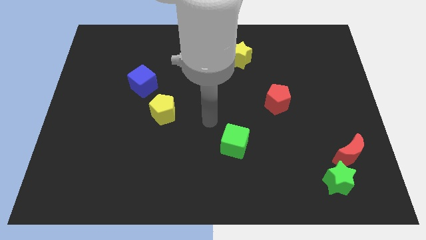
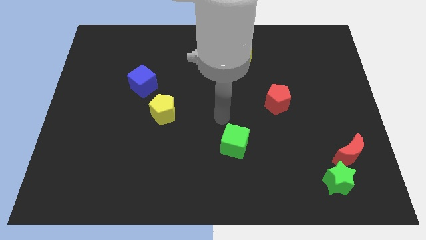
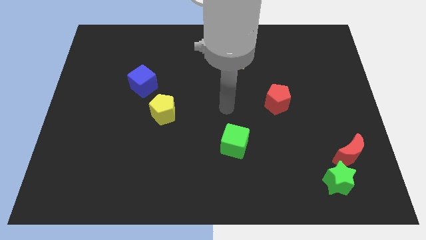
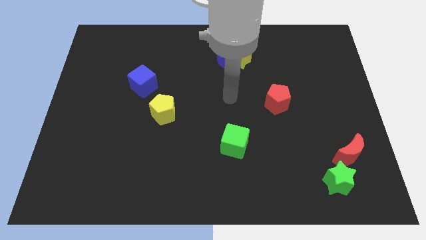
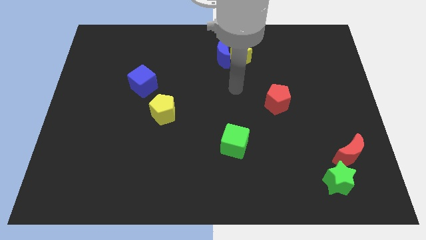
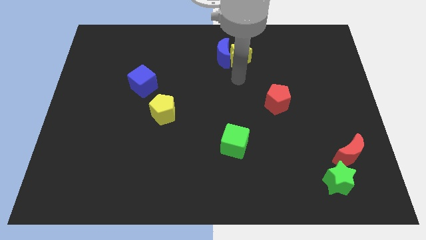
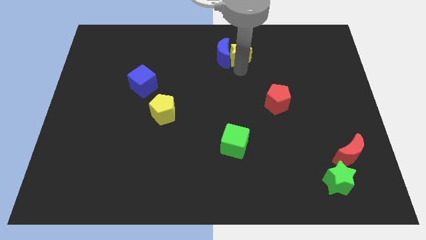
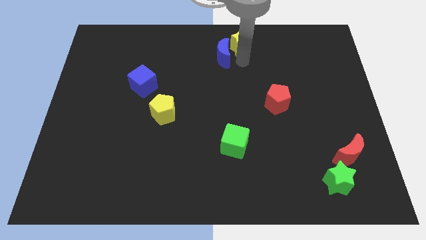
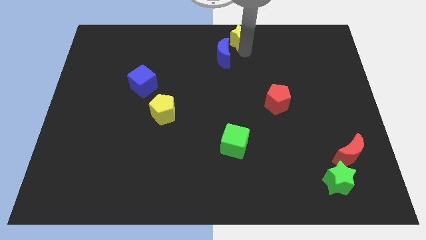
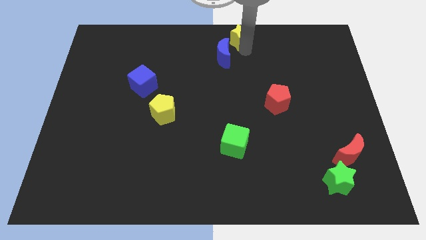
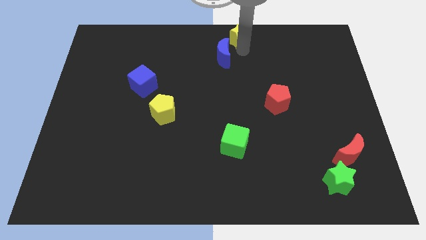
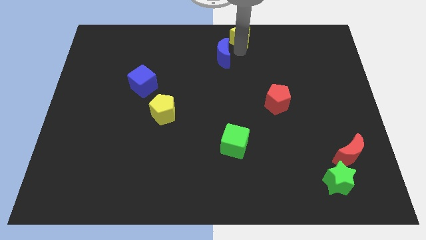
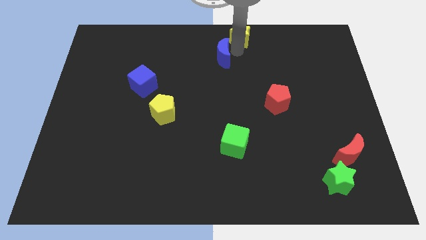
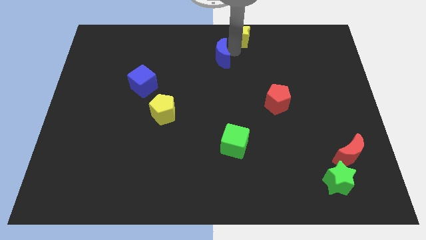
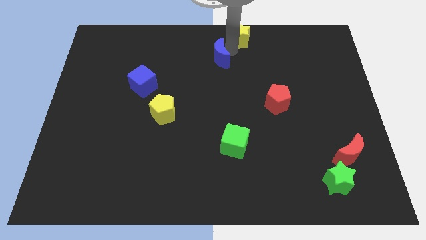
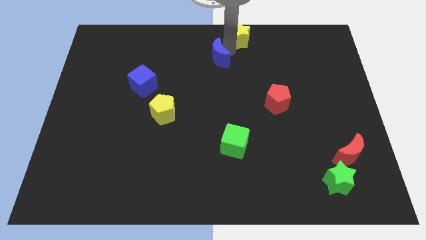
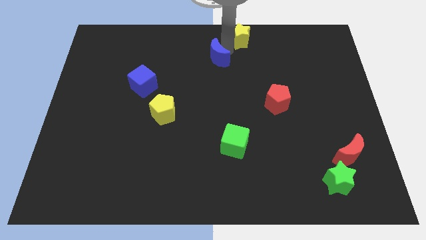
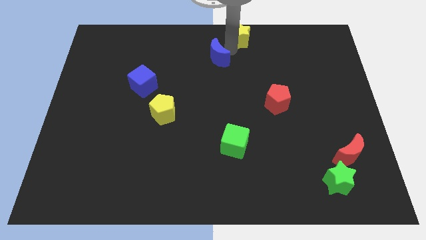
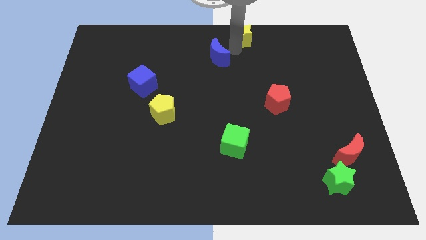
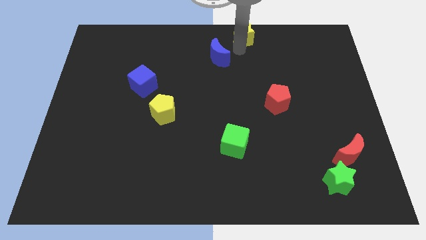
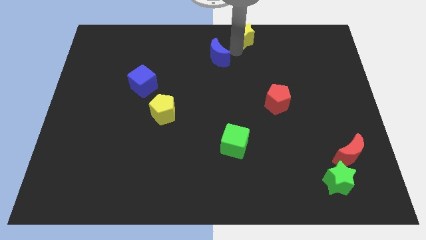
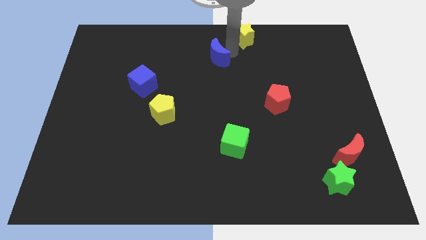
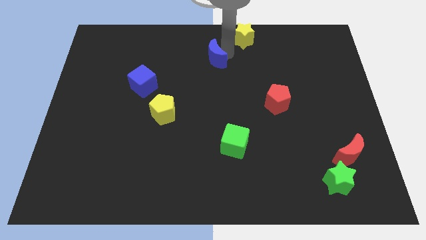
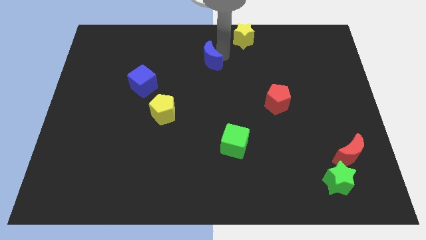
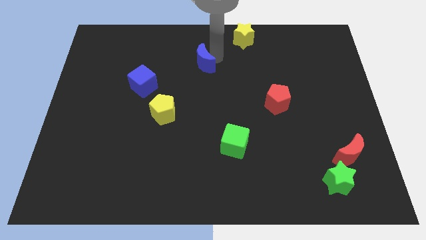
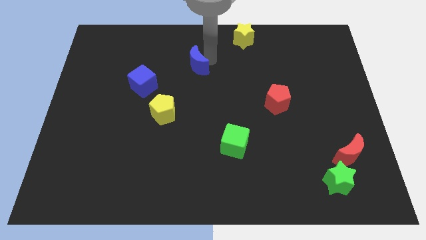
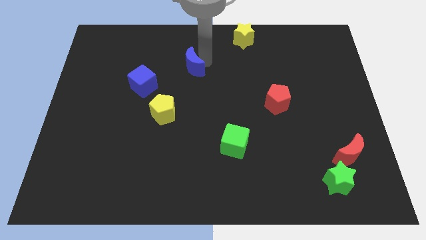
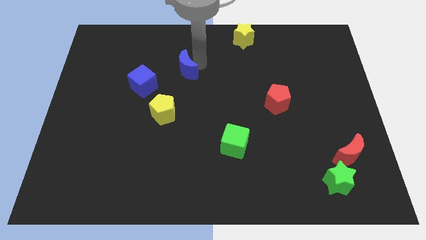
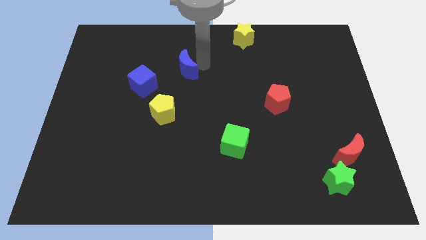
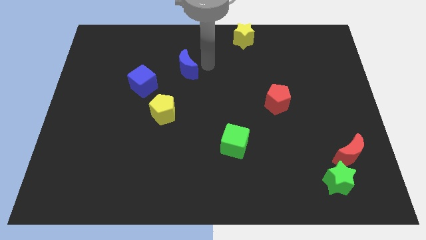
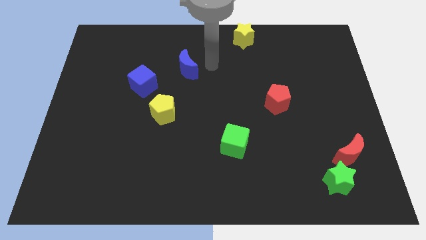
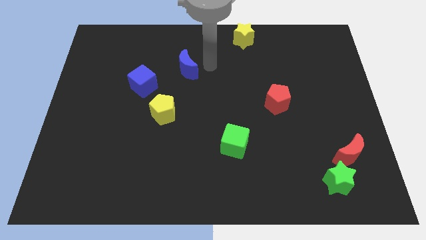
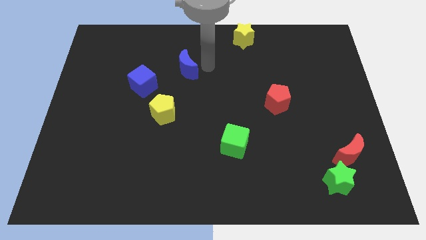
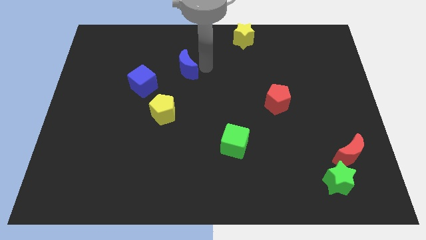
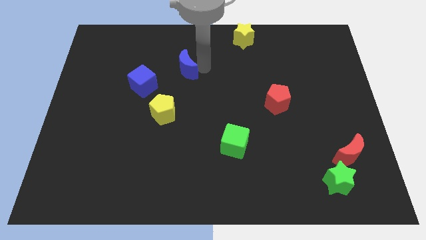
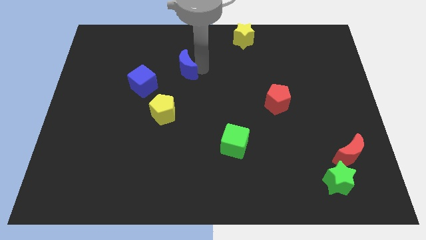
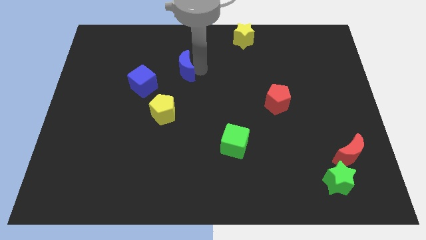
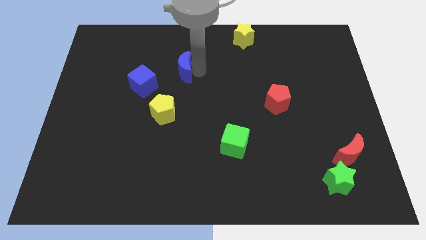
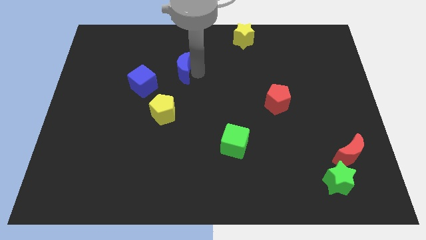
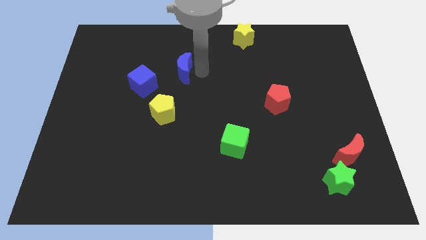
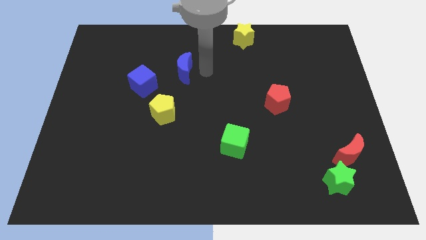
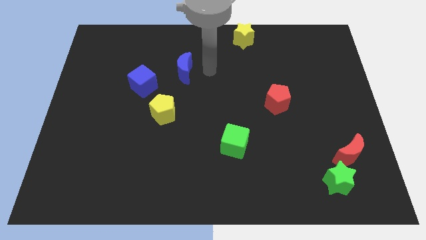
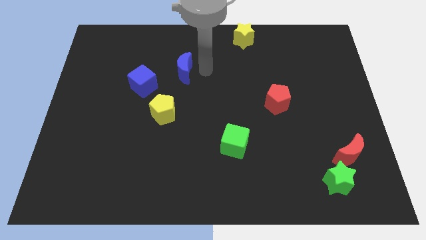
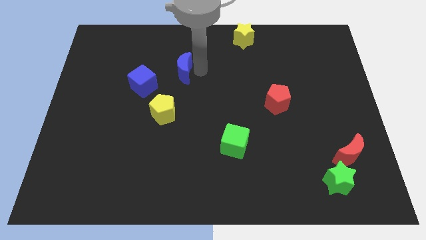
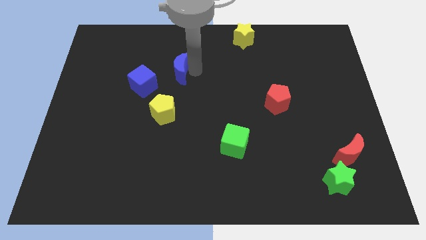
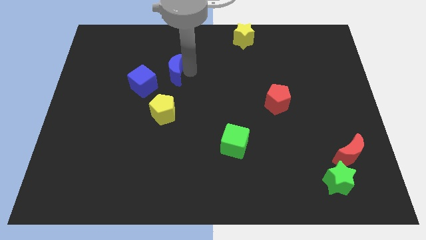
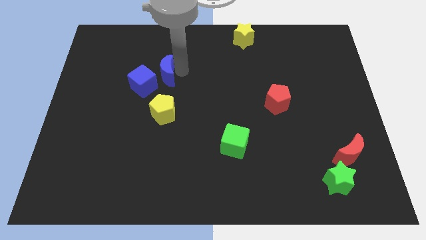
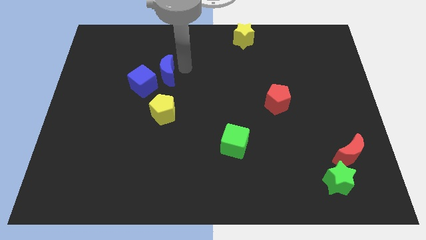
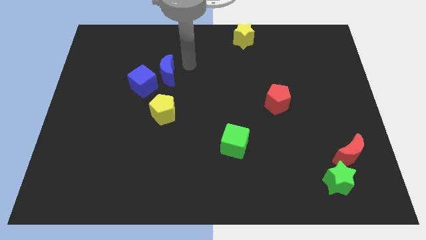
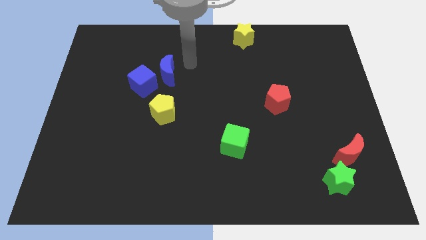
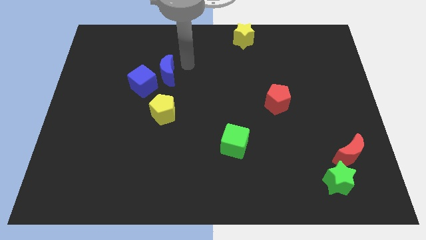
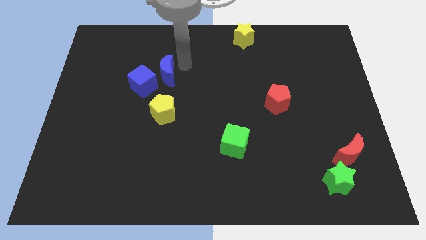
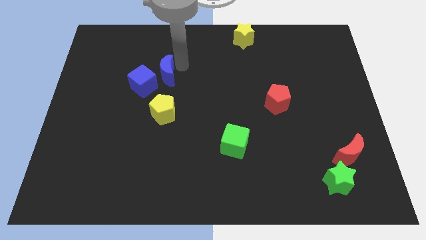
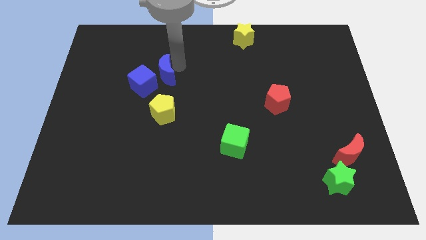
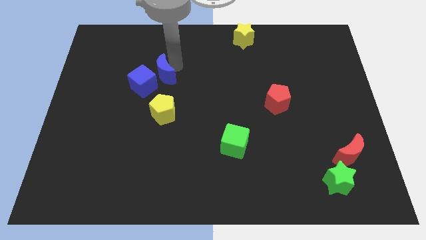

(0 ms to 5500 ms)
push the blue moon close to the blue cube

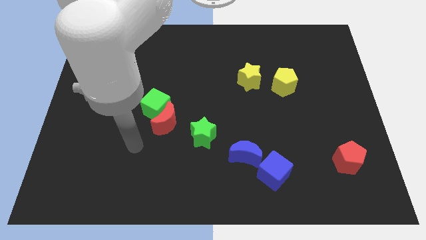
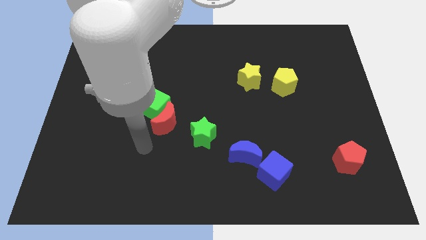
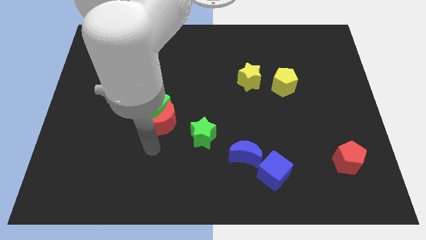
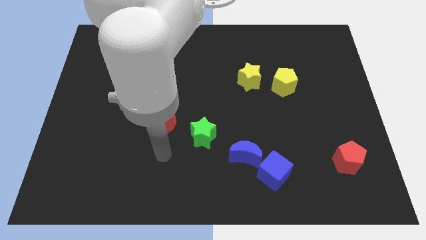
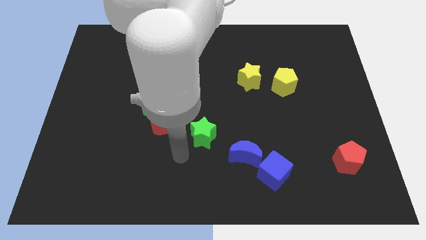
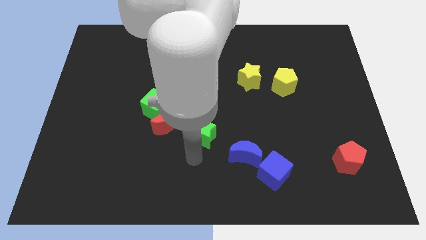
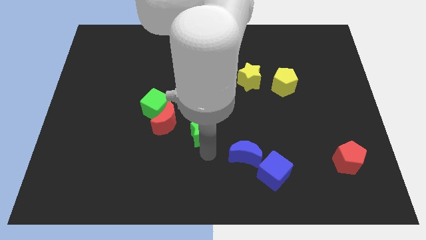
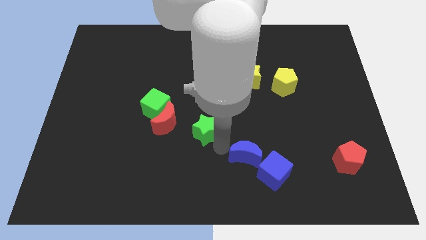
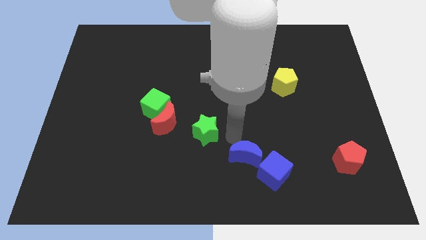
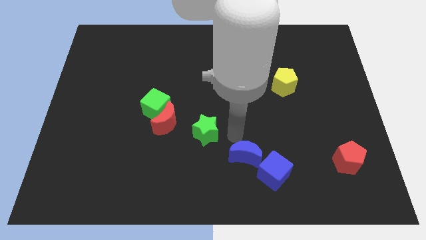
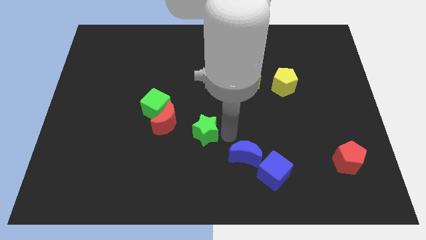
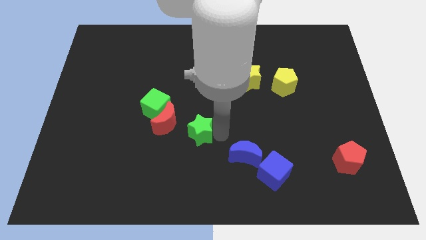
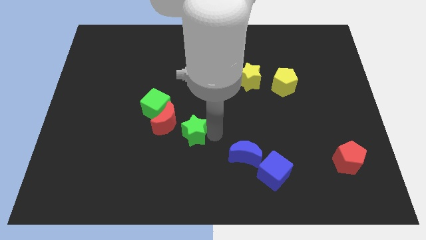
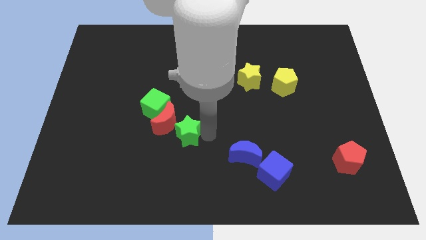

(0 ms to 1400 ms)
push the green star next to the red moon
